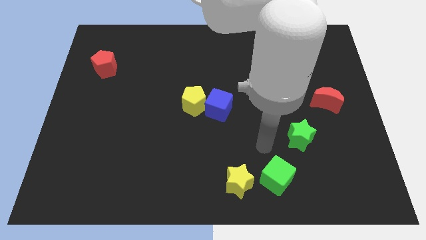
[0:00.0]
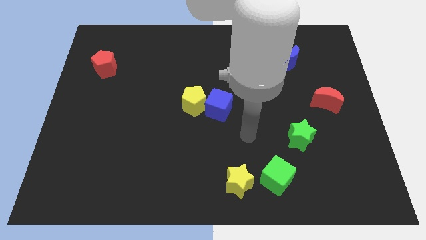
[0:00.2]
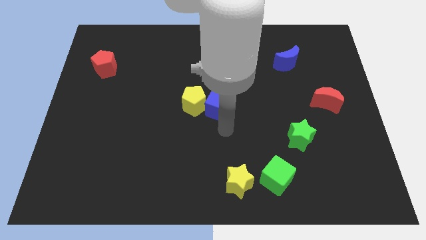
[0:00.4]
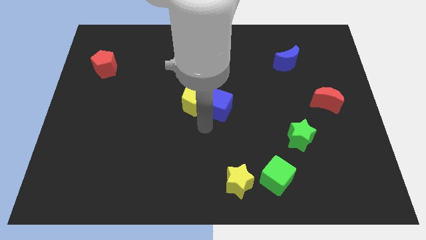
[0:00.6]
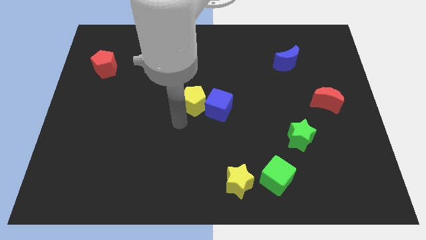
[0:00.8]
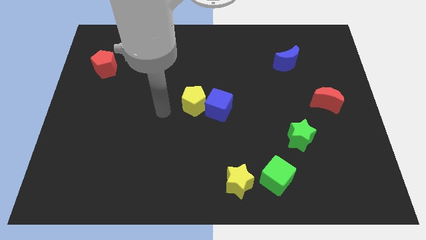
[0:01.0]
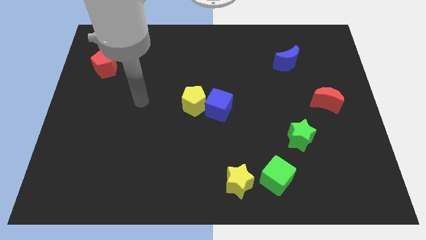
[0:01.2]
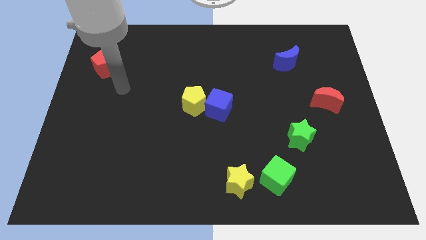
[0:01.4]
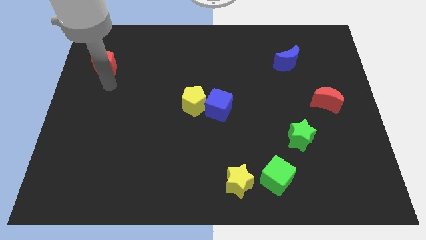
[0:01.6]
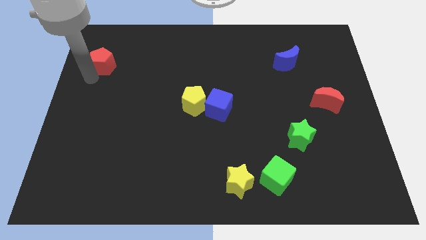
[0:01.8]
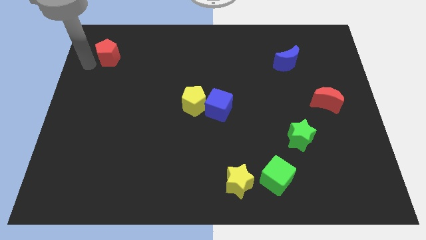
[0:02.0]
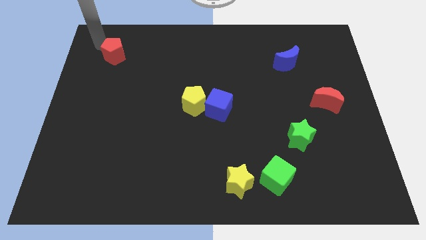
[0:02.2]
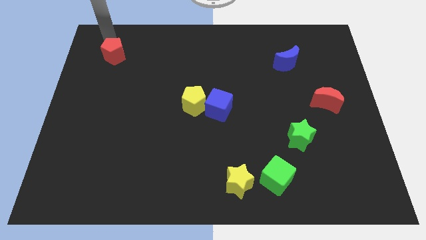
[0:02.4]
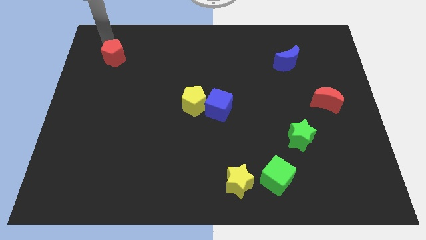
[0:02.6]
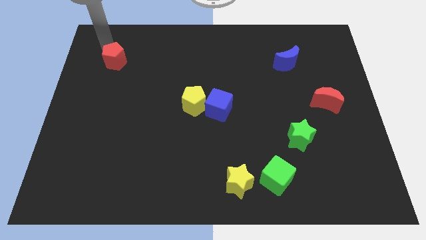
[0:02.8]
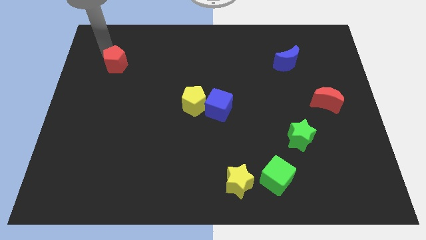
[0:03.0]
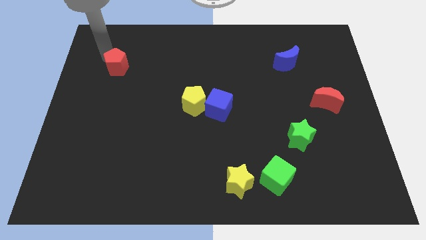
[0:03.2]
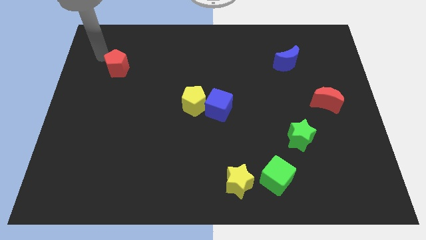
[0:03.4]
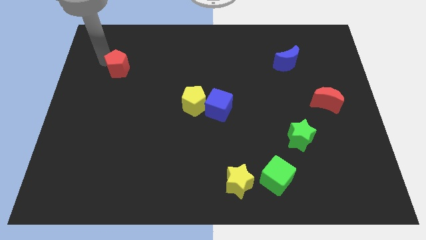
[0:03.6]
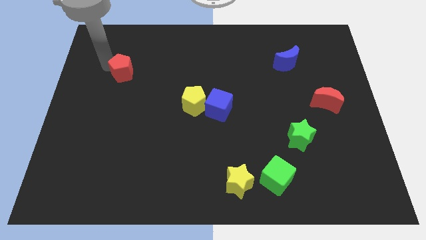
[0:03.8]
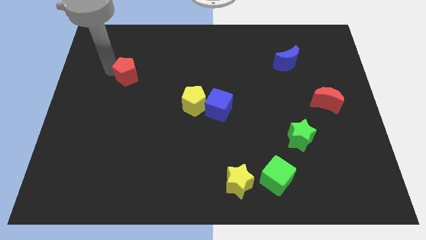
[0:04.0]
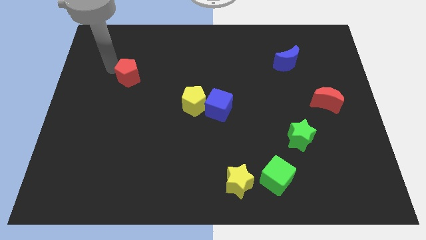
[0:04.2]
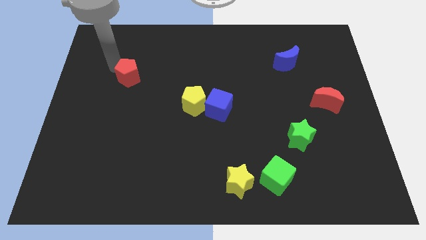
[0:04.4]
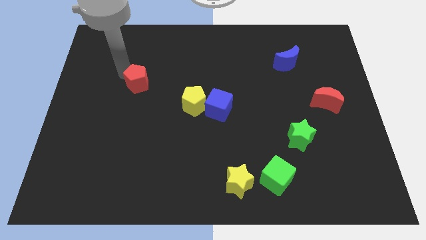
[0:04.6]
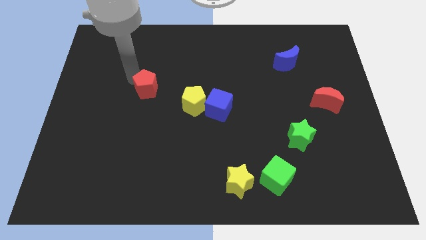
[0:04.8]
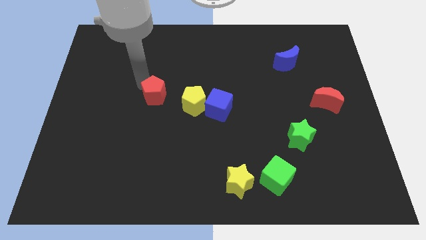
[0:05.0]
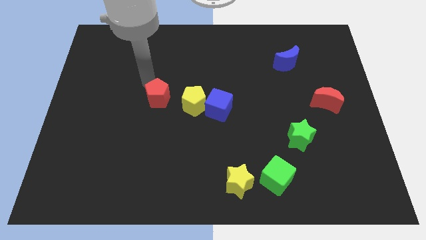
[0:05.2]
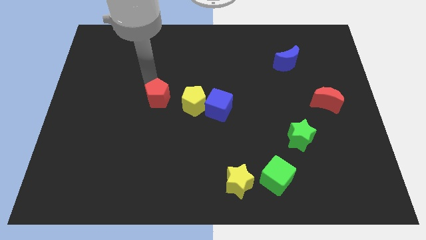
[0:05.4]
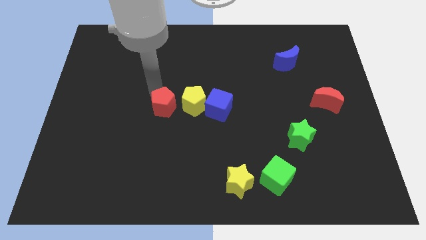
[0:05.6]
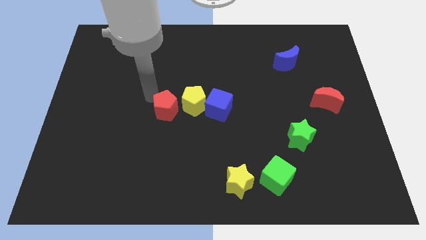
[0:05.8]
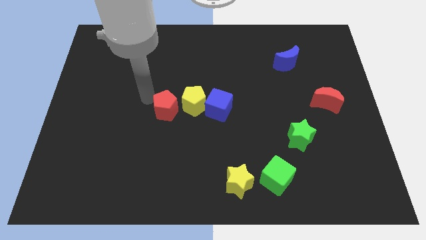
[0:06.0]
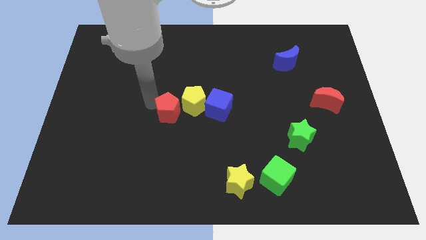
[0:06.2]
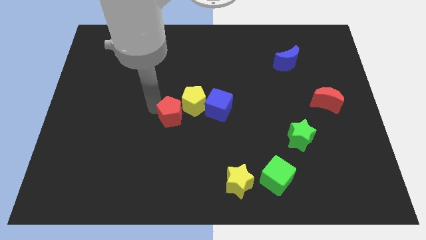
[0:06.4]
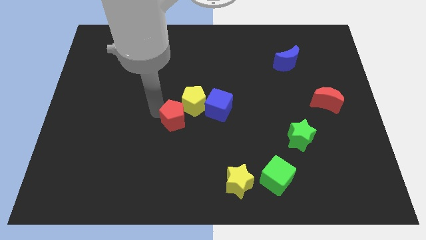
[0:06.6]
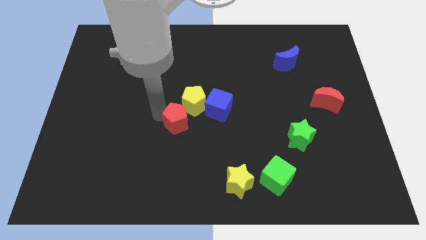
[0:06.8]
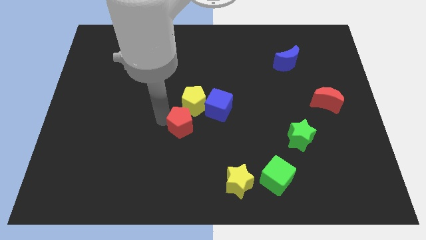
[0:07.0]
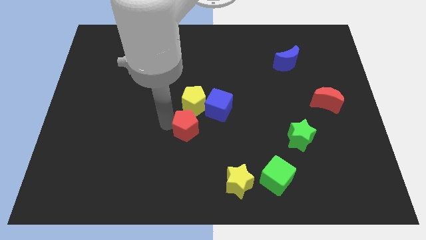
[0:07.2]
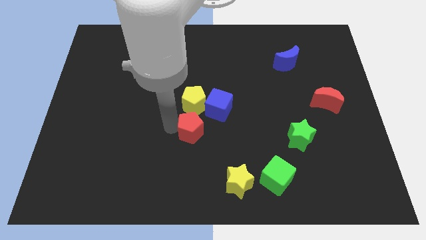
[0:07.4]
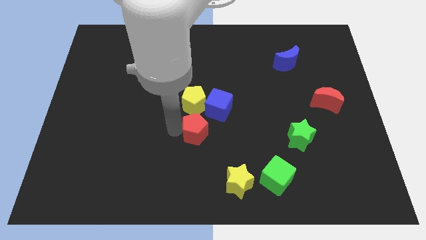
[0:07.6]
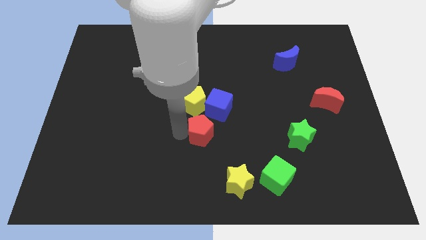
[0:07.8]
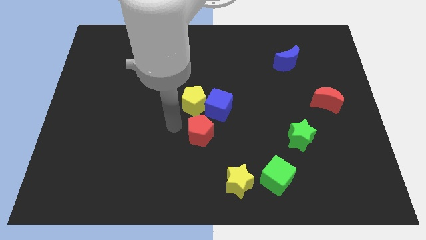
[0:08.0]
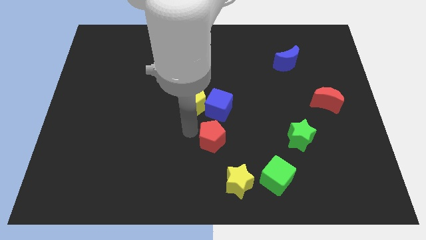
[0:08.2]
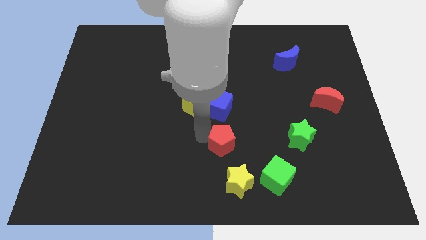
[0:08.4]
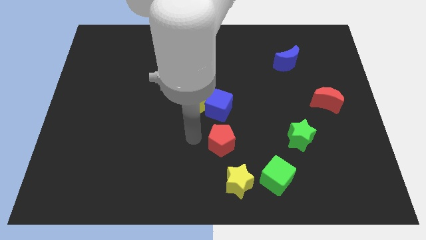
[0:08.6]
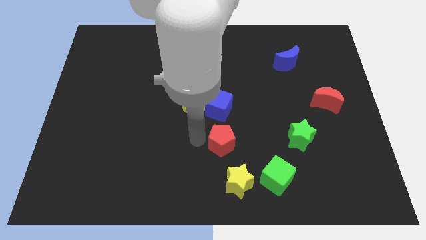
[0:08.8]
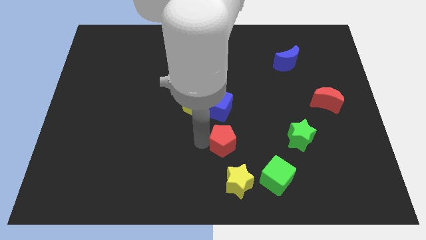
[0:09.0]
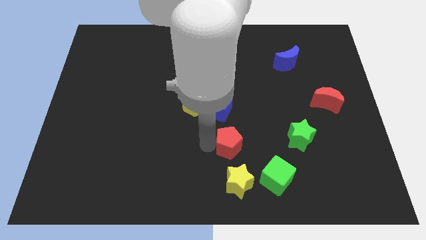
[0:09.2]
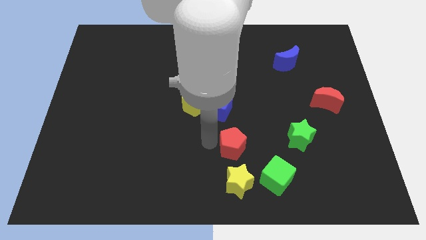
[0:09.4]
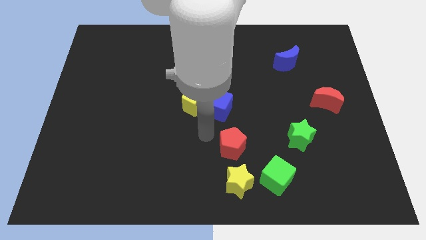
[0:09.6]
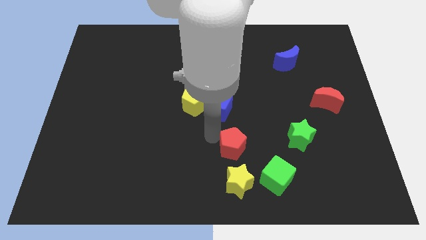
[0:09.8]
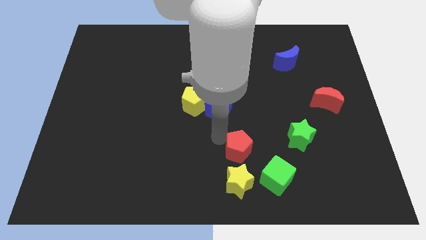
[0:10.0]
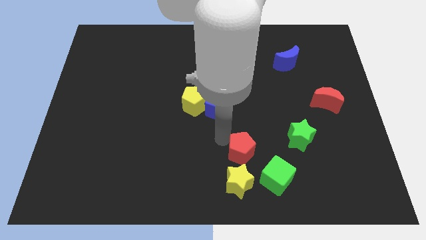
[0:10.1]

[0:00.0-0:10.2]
move the red pentagon to the top right of the yellow star

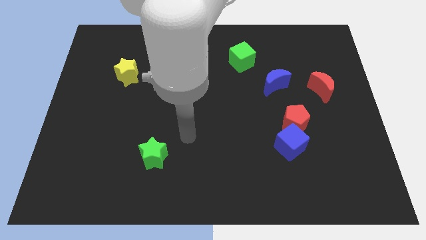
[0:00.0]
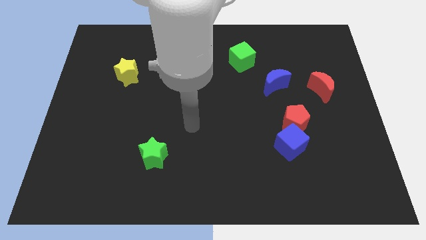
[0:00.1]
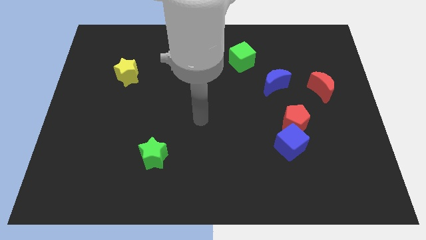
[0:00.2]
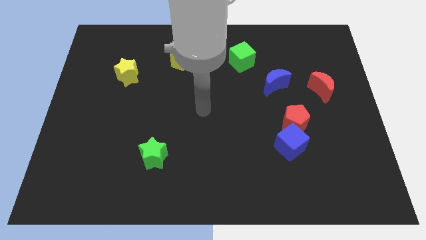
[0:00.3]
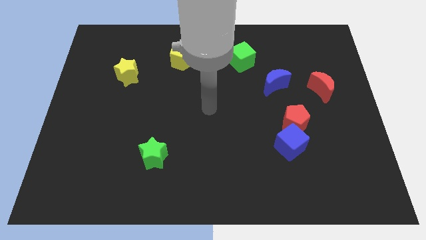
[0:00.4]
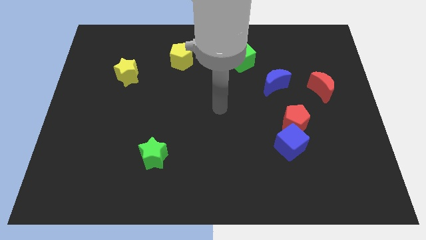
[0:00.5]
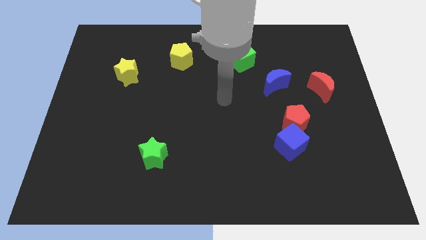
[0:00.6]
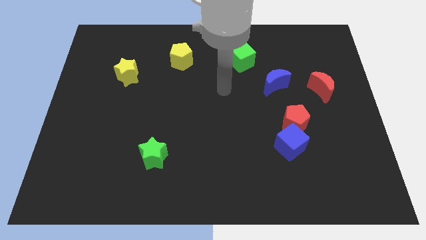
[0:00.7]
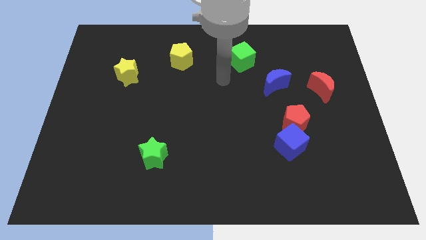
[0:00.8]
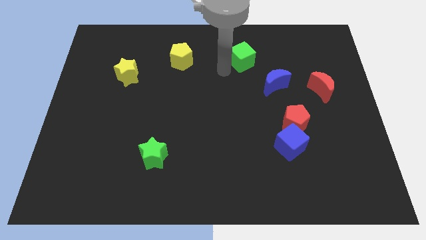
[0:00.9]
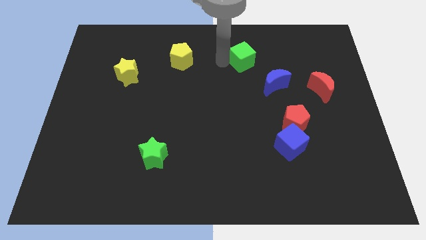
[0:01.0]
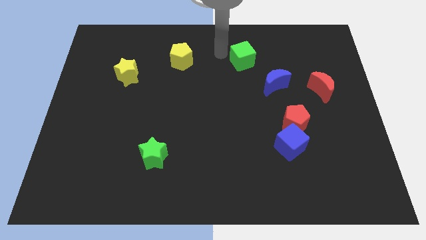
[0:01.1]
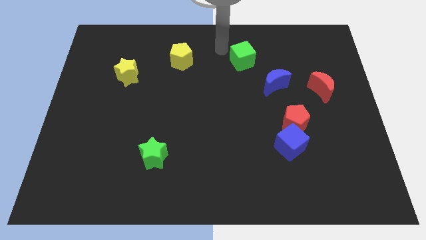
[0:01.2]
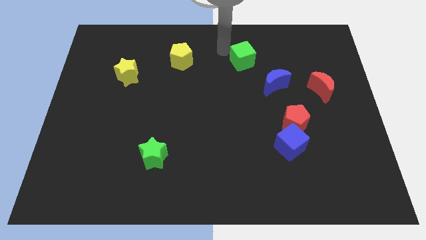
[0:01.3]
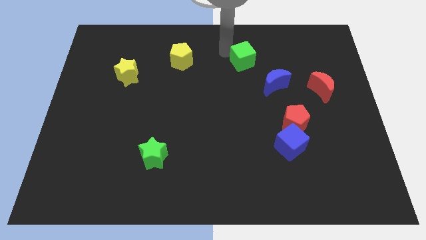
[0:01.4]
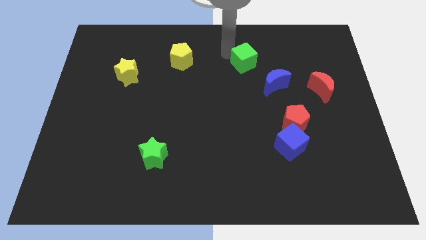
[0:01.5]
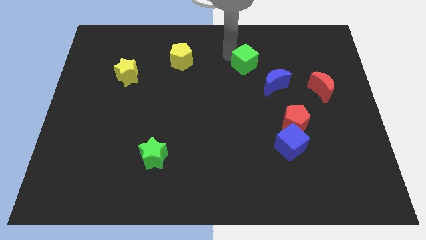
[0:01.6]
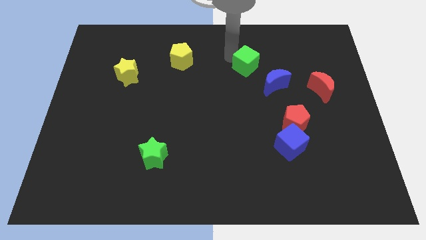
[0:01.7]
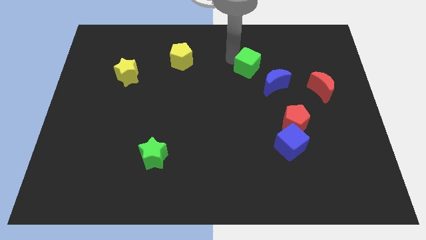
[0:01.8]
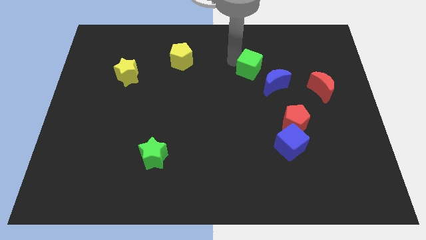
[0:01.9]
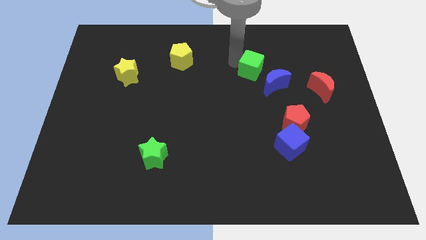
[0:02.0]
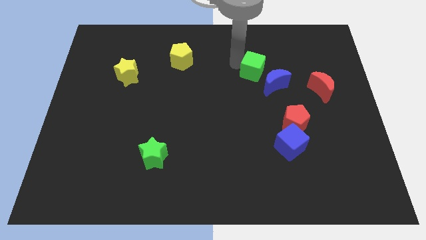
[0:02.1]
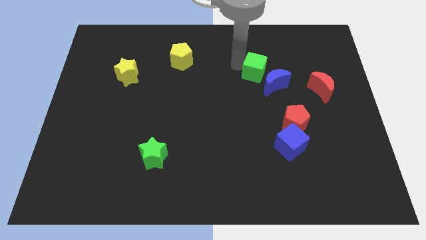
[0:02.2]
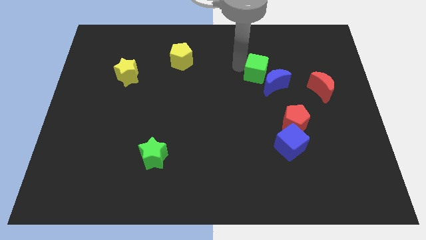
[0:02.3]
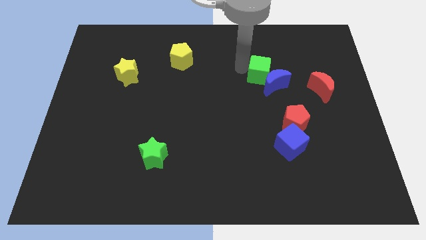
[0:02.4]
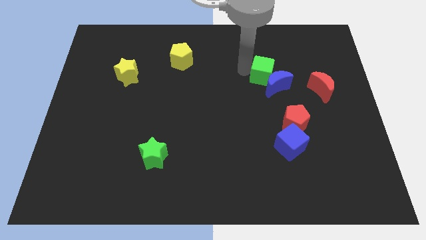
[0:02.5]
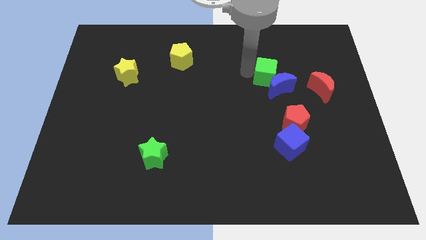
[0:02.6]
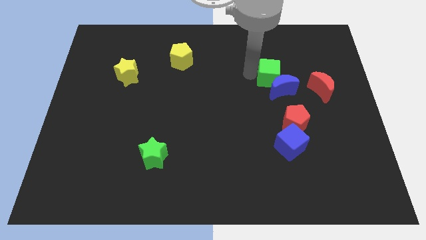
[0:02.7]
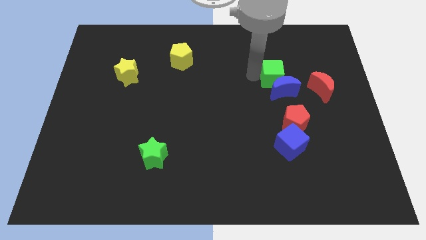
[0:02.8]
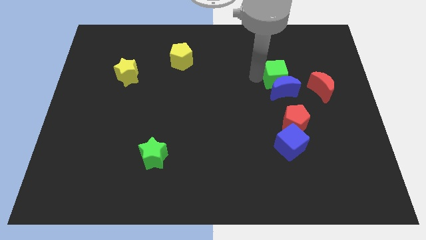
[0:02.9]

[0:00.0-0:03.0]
put the green cube to the top right of the blue moon
